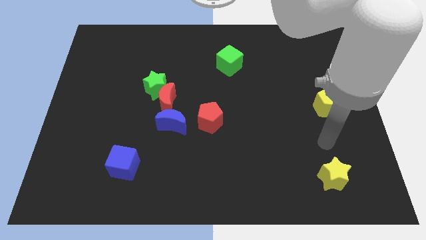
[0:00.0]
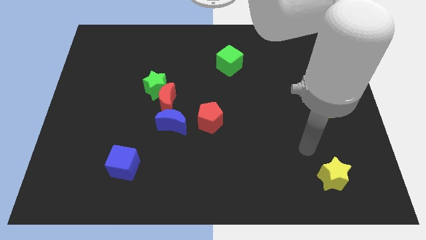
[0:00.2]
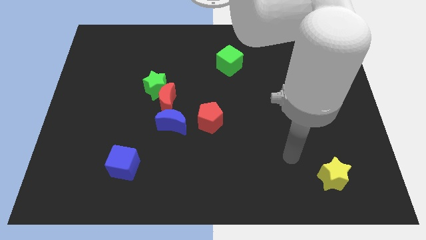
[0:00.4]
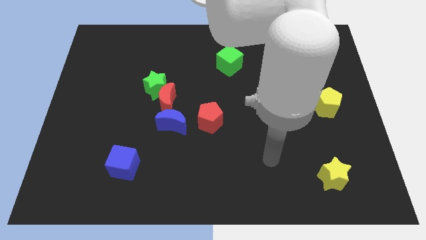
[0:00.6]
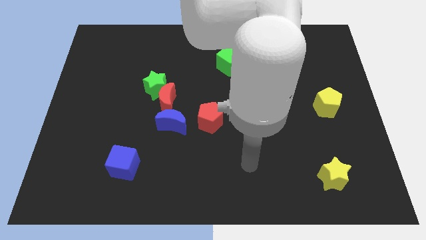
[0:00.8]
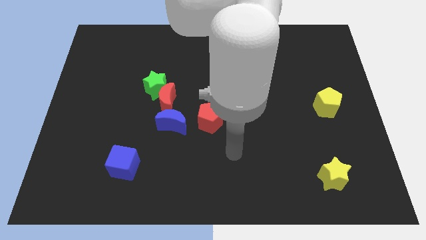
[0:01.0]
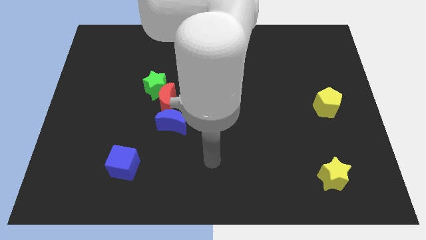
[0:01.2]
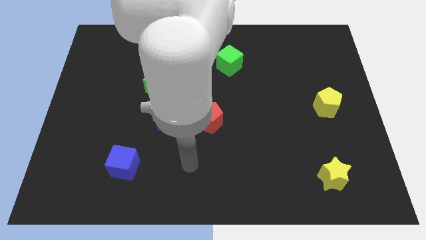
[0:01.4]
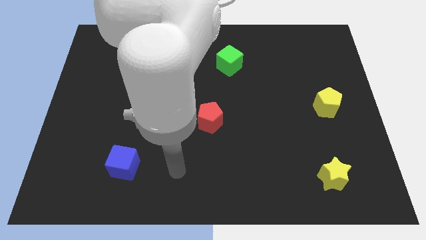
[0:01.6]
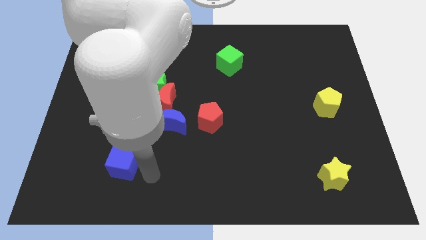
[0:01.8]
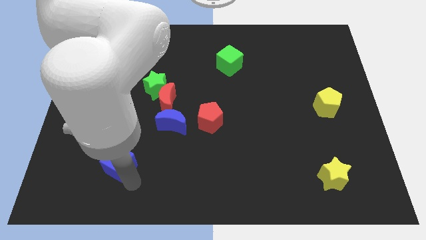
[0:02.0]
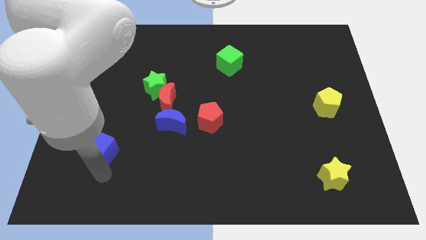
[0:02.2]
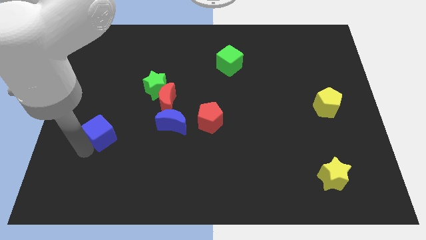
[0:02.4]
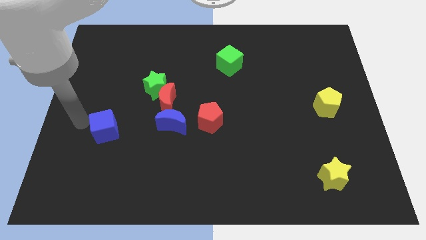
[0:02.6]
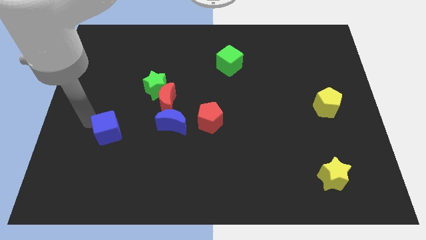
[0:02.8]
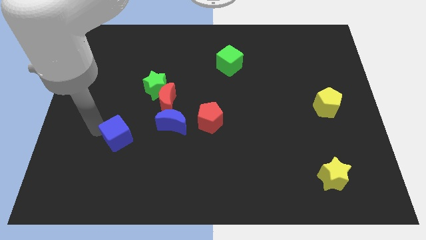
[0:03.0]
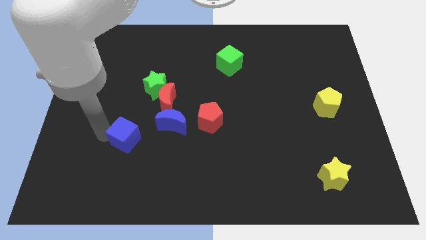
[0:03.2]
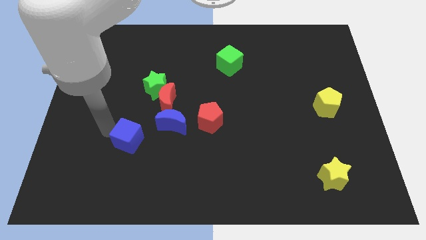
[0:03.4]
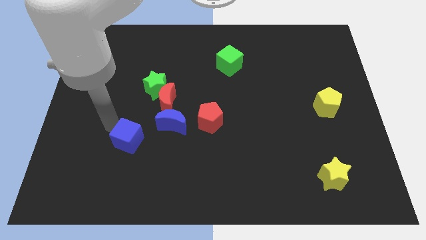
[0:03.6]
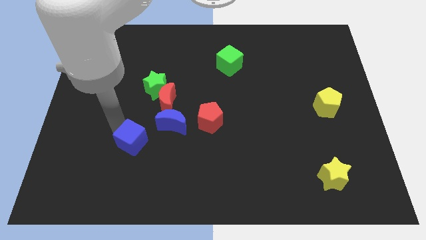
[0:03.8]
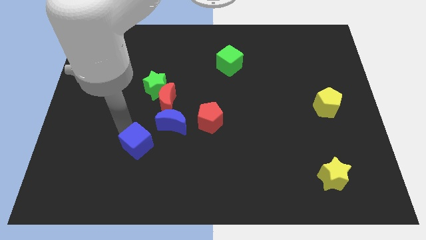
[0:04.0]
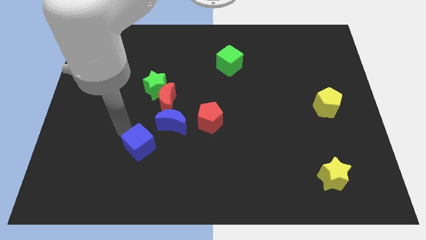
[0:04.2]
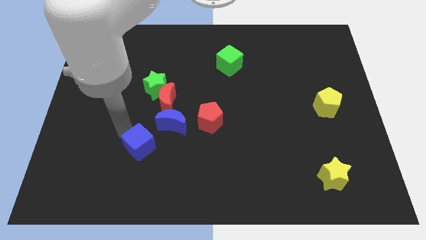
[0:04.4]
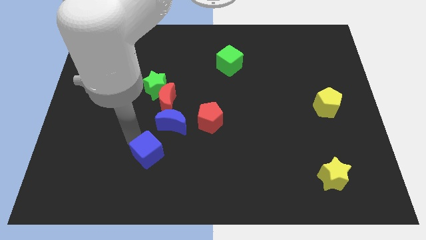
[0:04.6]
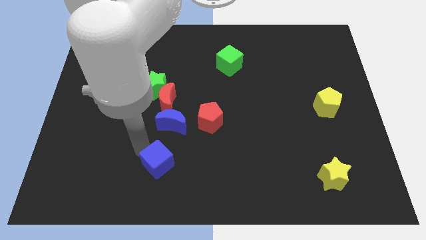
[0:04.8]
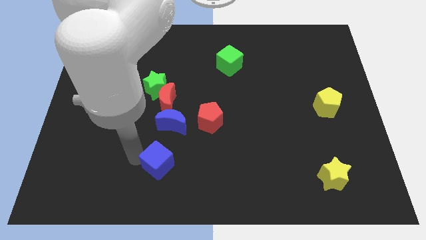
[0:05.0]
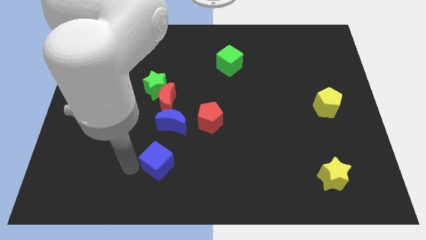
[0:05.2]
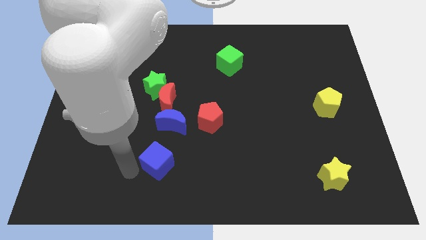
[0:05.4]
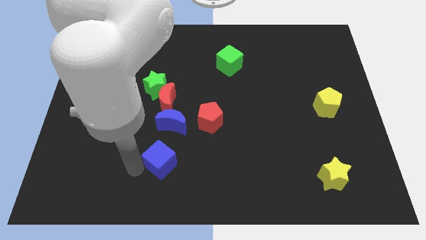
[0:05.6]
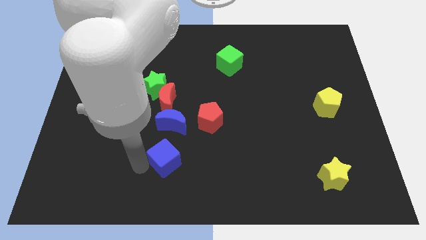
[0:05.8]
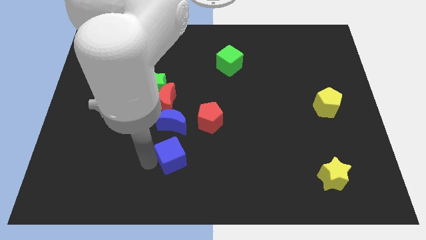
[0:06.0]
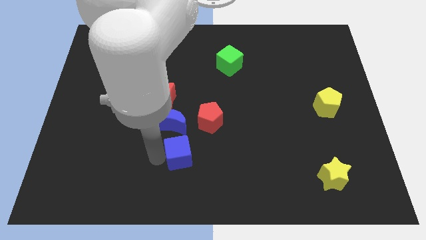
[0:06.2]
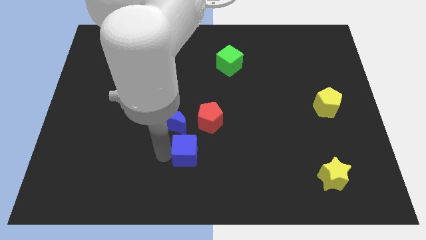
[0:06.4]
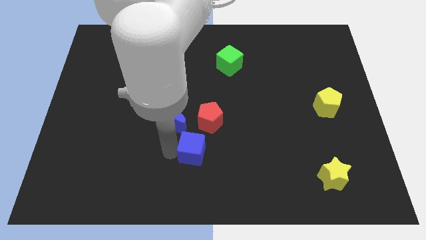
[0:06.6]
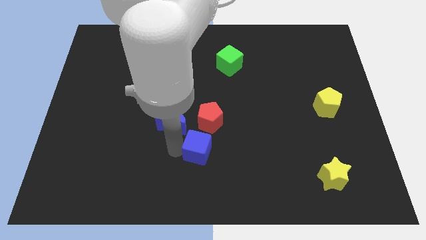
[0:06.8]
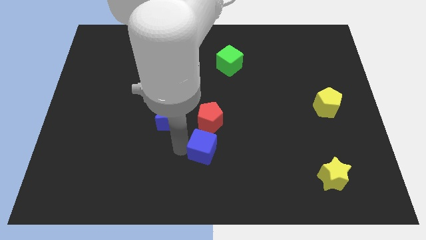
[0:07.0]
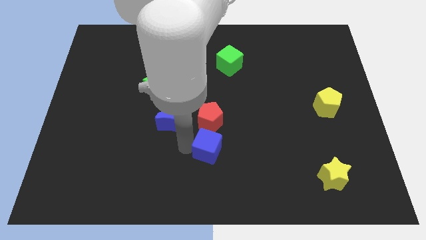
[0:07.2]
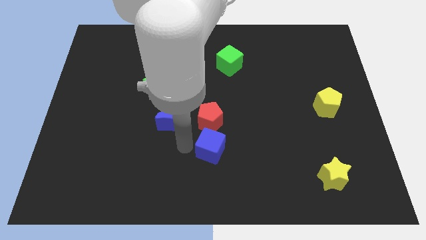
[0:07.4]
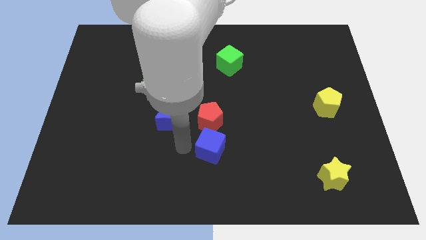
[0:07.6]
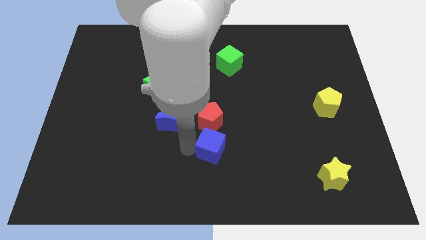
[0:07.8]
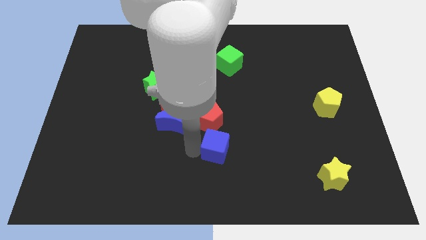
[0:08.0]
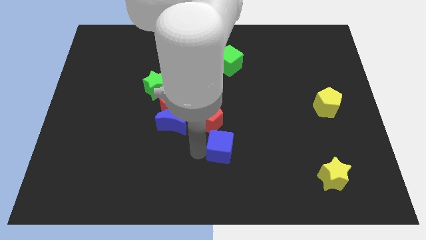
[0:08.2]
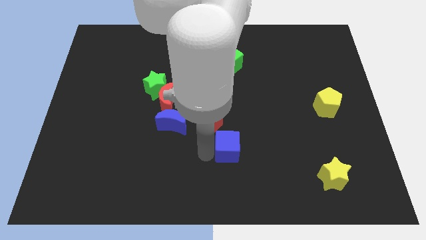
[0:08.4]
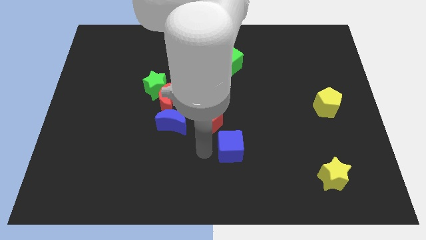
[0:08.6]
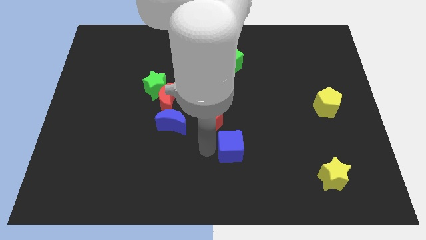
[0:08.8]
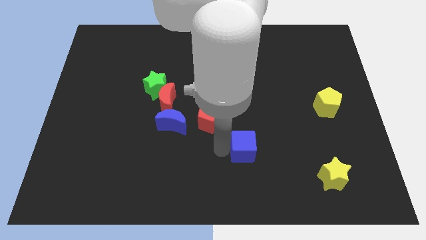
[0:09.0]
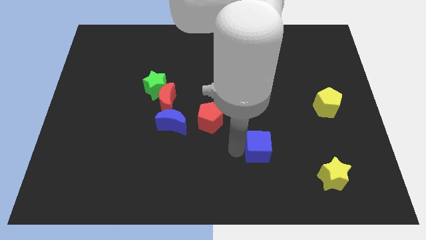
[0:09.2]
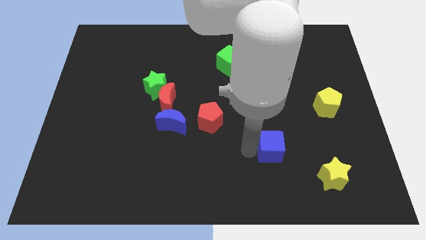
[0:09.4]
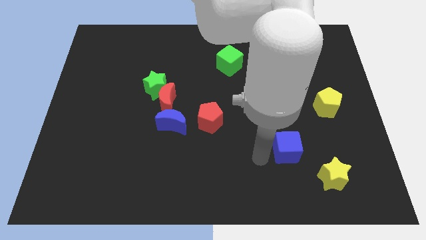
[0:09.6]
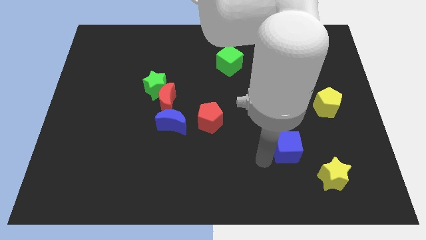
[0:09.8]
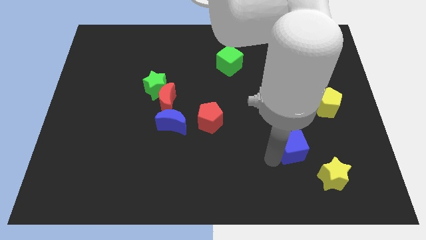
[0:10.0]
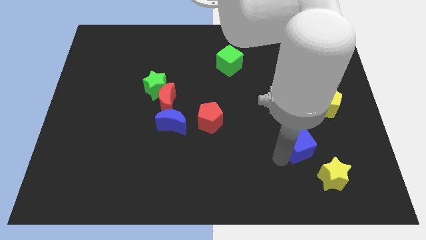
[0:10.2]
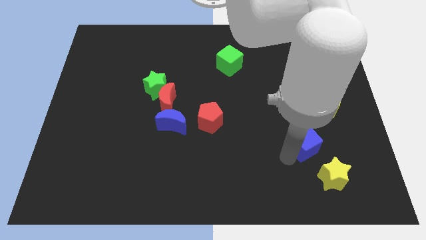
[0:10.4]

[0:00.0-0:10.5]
push the blue cube to the top of the yellow star

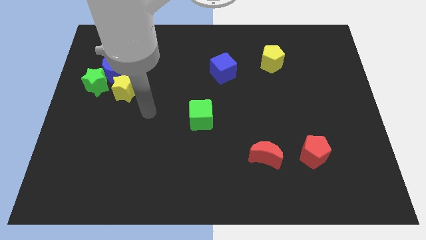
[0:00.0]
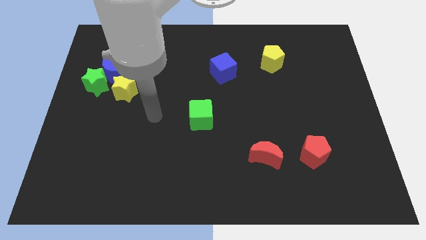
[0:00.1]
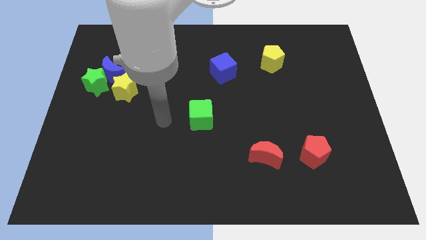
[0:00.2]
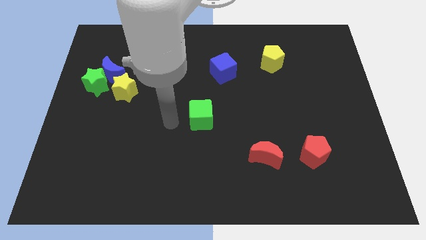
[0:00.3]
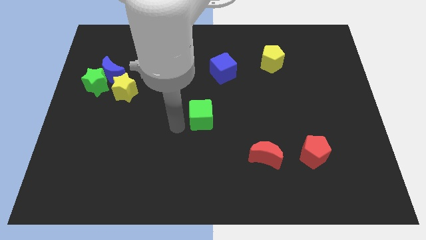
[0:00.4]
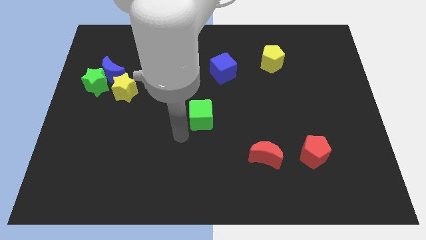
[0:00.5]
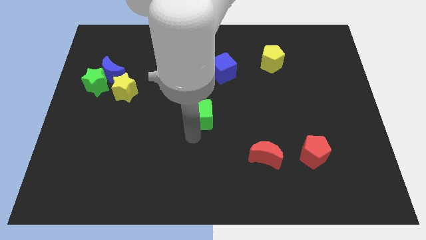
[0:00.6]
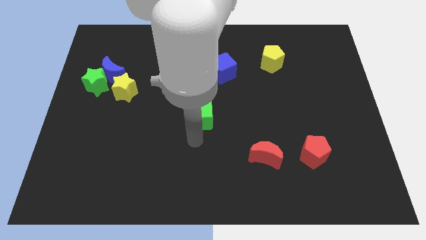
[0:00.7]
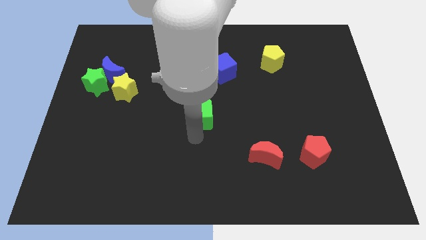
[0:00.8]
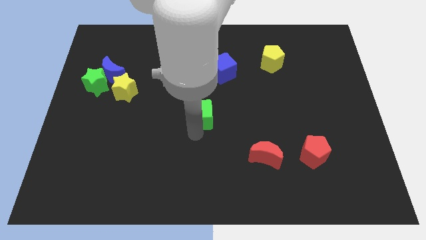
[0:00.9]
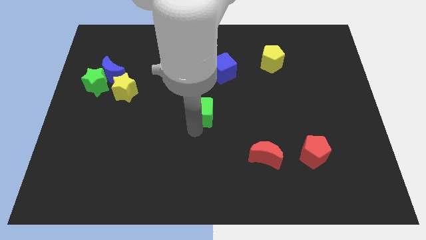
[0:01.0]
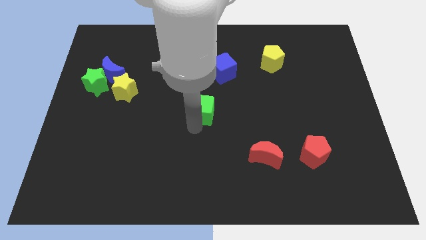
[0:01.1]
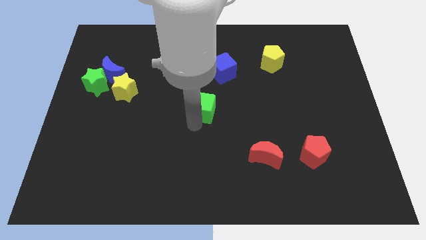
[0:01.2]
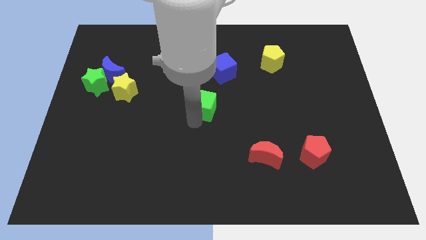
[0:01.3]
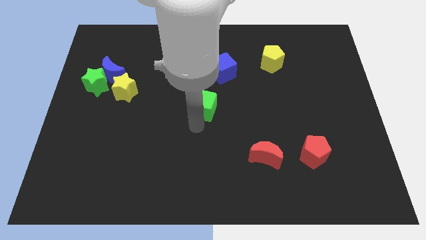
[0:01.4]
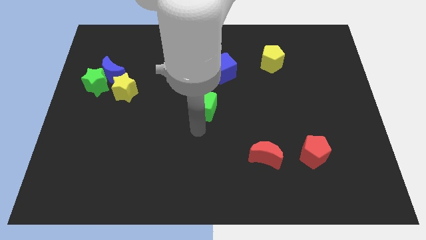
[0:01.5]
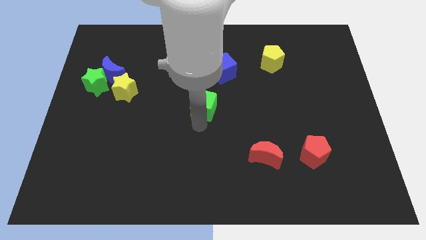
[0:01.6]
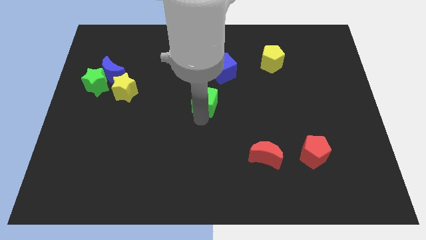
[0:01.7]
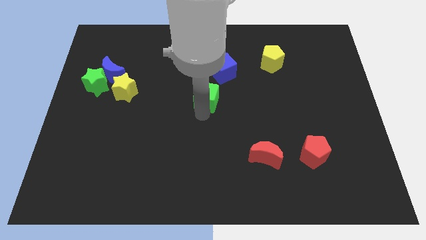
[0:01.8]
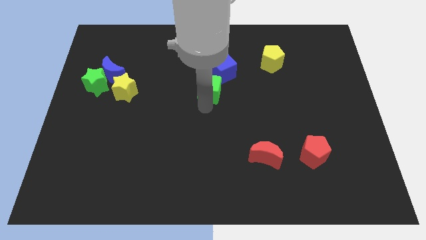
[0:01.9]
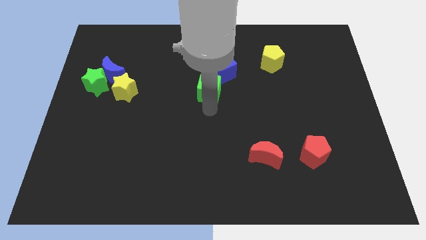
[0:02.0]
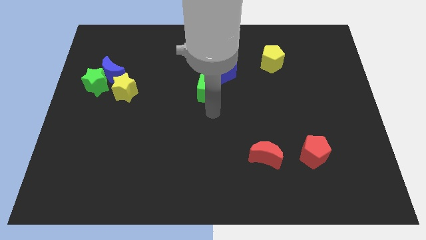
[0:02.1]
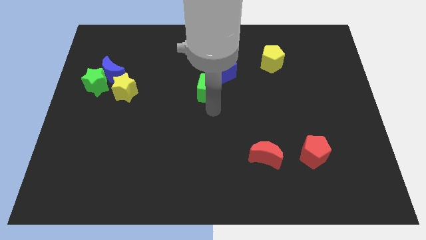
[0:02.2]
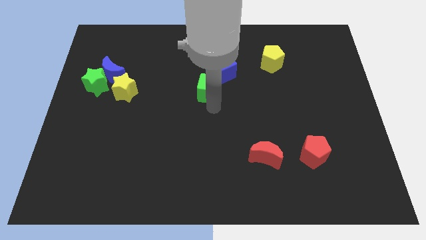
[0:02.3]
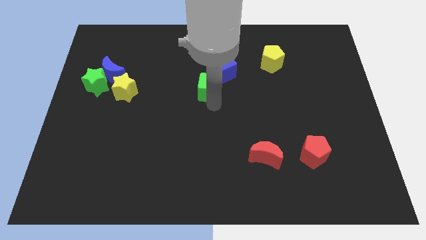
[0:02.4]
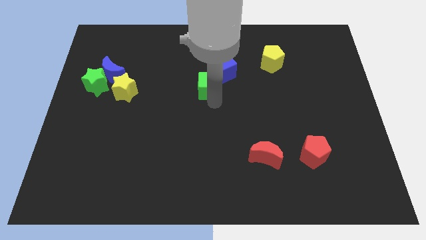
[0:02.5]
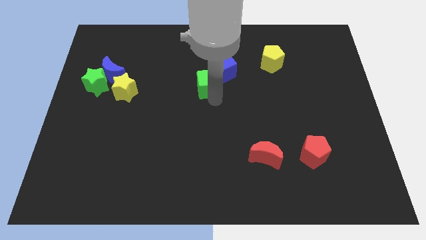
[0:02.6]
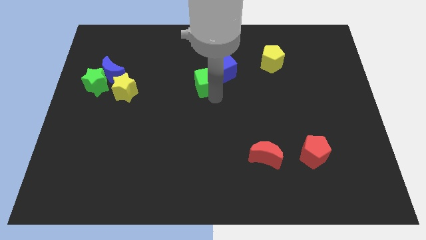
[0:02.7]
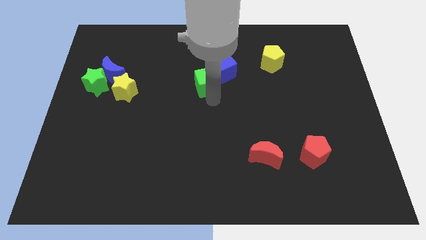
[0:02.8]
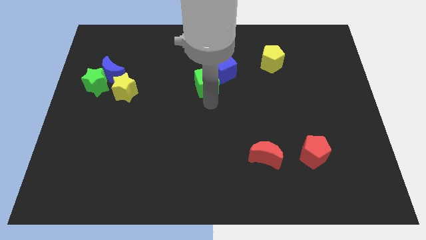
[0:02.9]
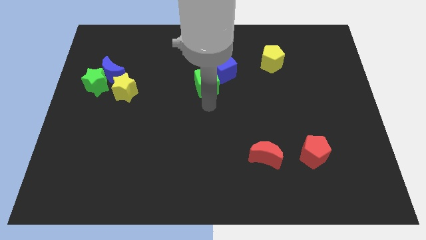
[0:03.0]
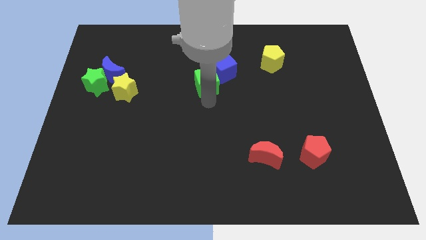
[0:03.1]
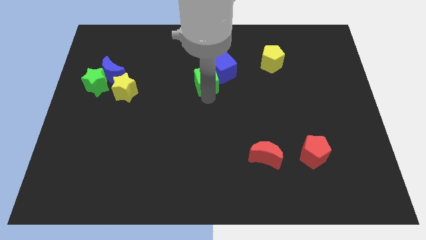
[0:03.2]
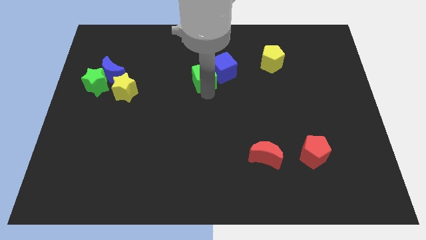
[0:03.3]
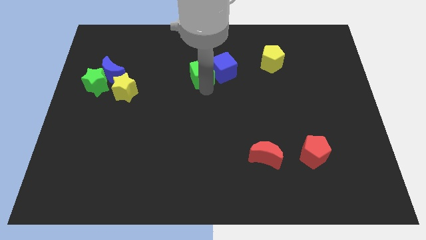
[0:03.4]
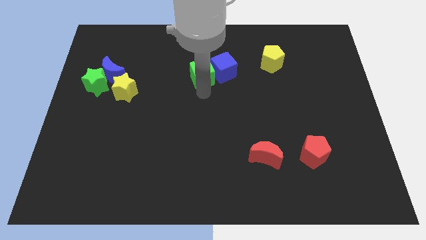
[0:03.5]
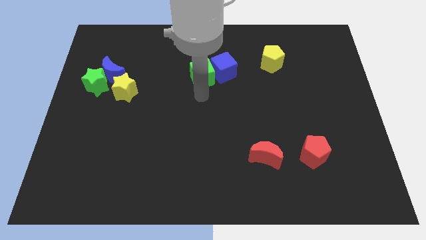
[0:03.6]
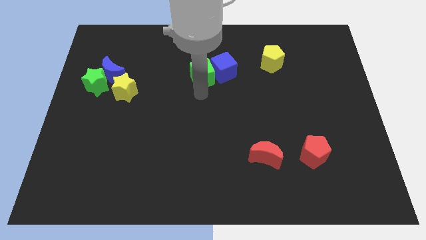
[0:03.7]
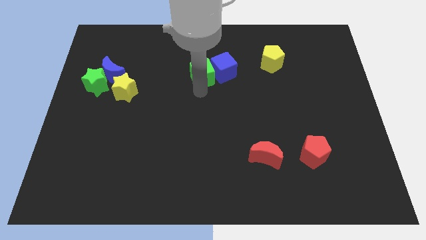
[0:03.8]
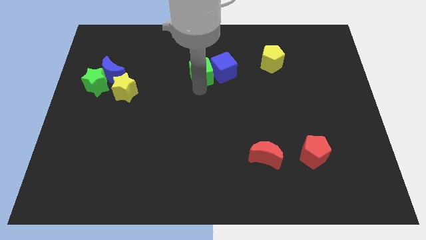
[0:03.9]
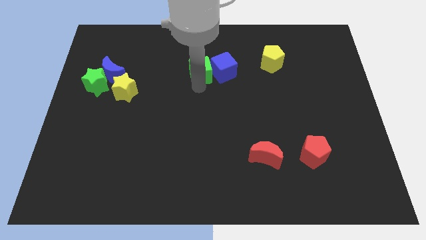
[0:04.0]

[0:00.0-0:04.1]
put the green cube diagonally up and to the left of the blue cube
